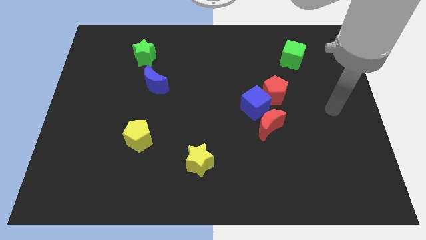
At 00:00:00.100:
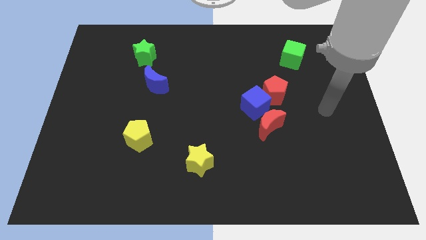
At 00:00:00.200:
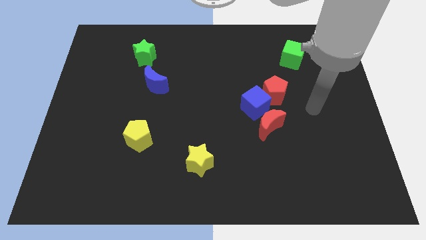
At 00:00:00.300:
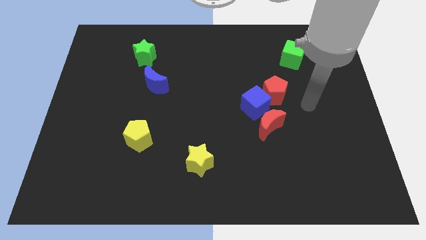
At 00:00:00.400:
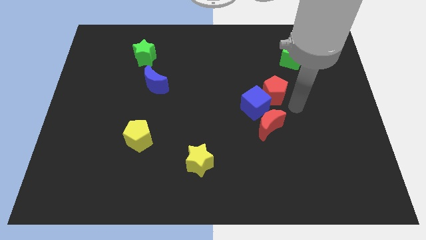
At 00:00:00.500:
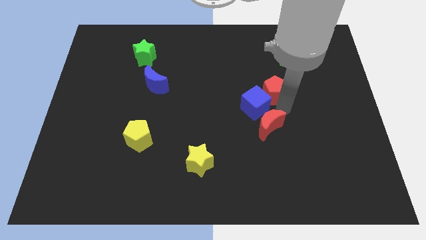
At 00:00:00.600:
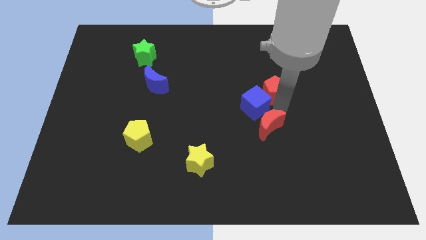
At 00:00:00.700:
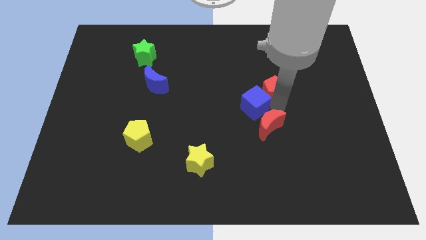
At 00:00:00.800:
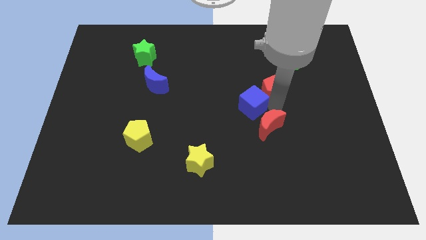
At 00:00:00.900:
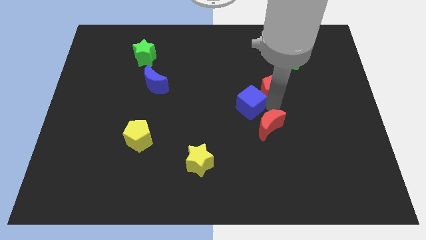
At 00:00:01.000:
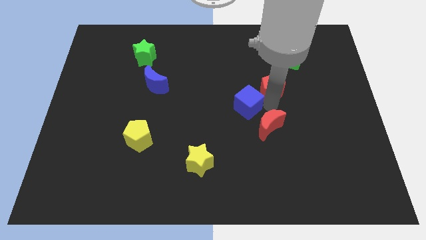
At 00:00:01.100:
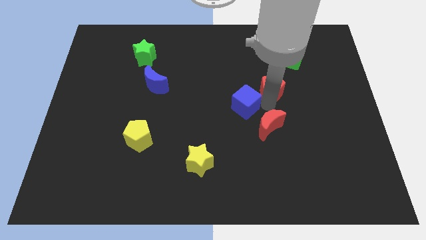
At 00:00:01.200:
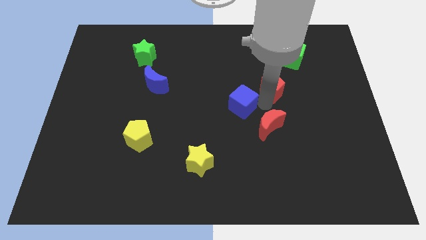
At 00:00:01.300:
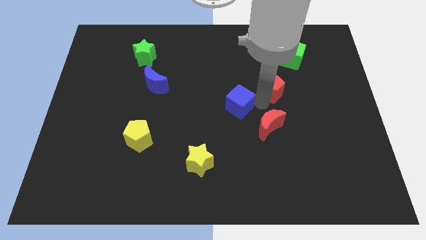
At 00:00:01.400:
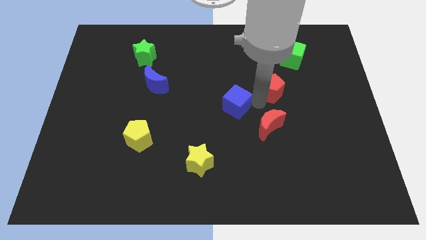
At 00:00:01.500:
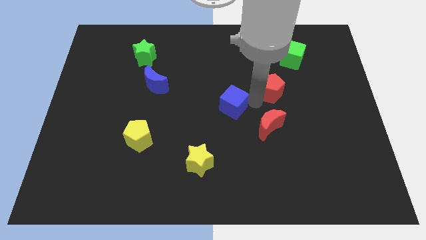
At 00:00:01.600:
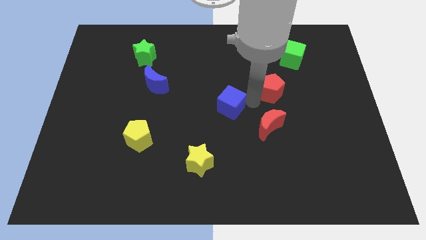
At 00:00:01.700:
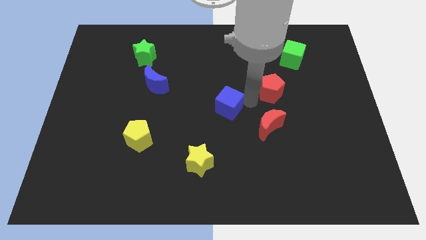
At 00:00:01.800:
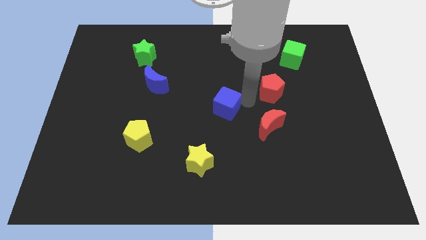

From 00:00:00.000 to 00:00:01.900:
separate the blue cube from the red pentagon and red moon

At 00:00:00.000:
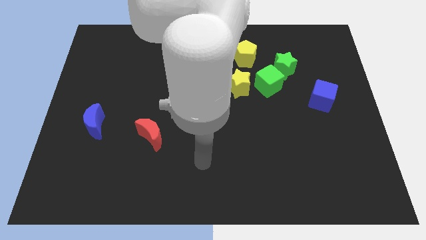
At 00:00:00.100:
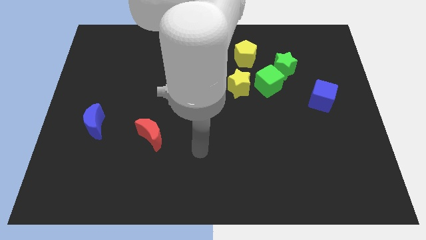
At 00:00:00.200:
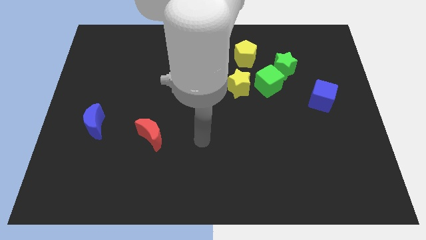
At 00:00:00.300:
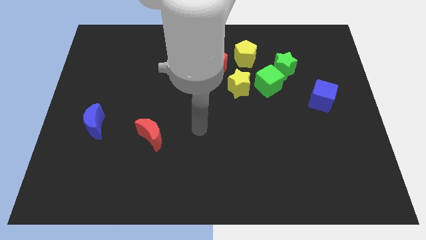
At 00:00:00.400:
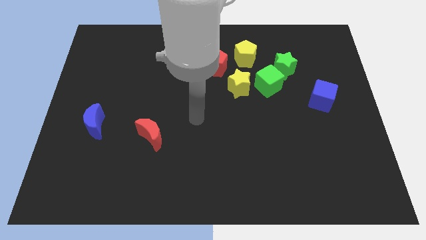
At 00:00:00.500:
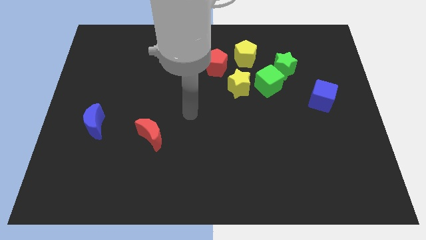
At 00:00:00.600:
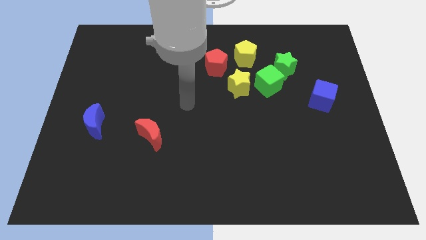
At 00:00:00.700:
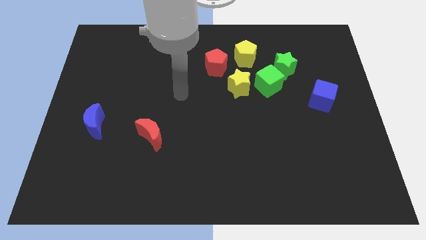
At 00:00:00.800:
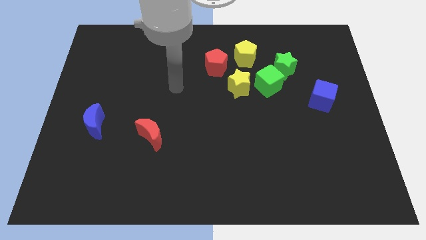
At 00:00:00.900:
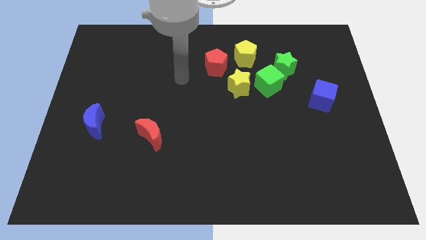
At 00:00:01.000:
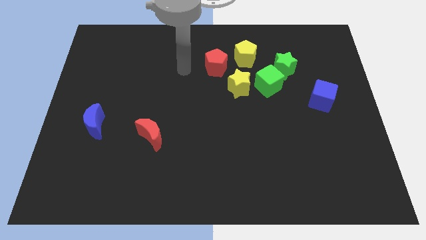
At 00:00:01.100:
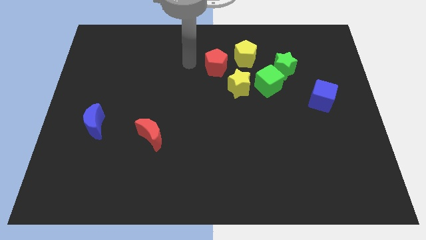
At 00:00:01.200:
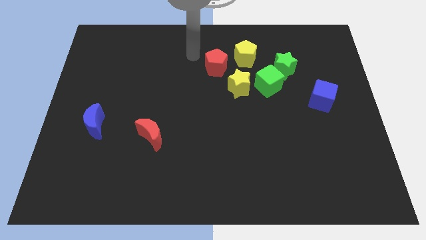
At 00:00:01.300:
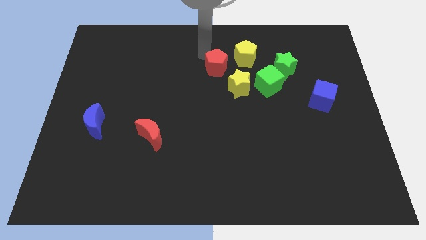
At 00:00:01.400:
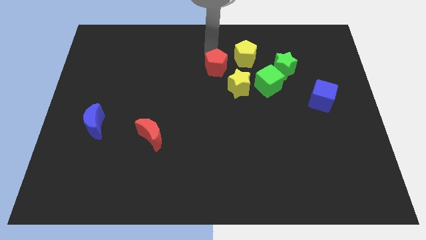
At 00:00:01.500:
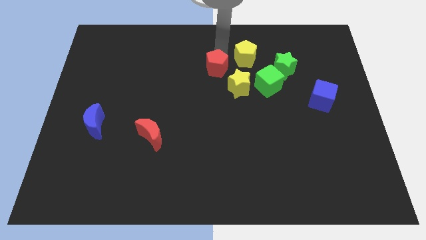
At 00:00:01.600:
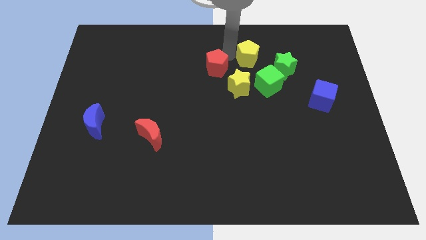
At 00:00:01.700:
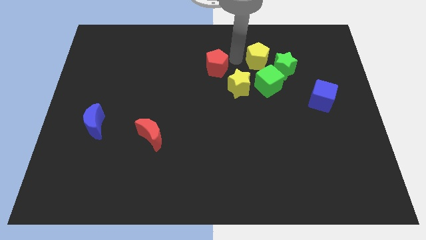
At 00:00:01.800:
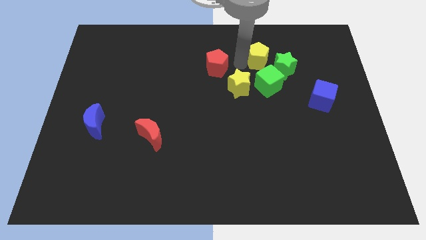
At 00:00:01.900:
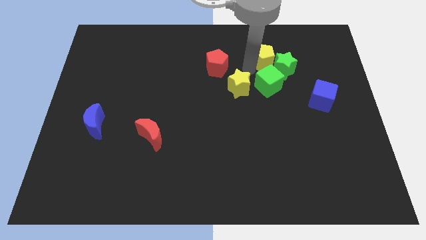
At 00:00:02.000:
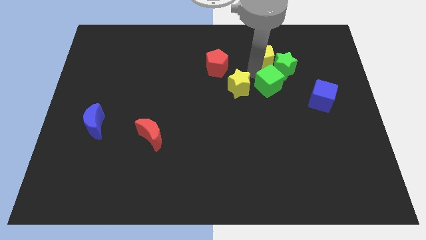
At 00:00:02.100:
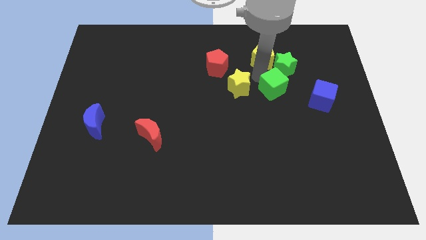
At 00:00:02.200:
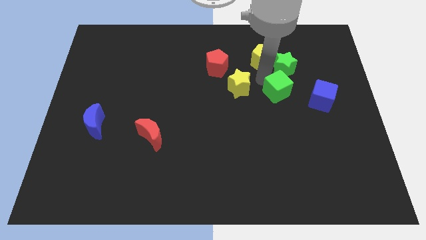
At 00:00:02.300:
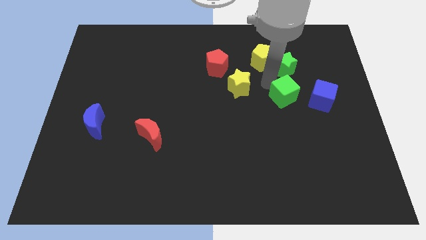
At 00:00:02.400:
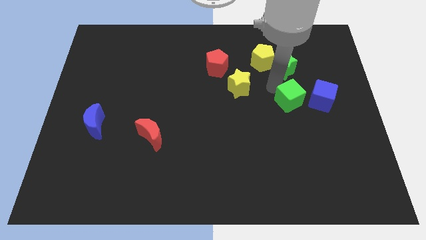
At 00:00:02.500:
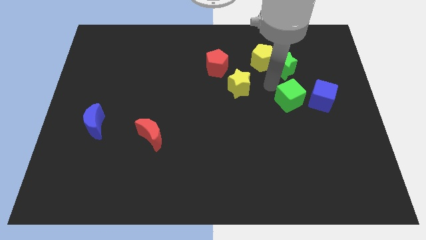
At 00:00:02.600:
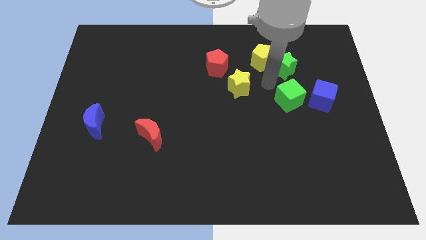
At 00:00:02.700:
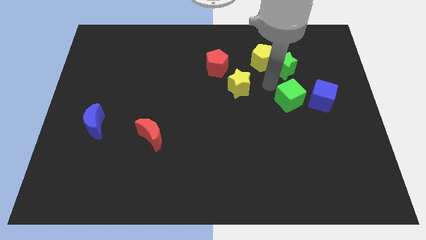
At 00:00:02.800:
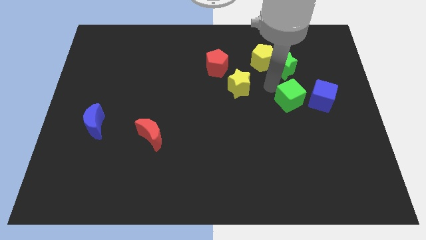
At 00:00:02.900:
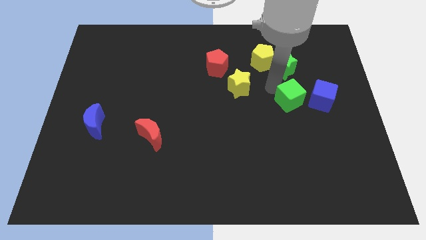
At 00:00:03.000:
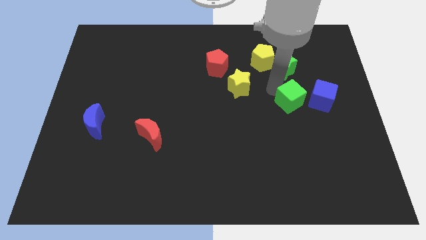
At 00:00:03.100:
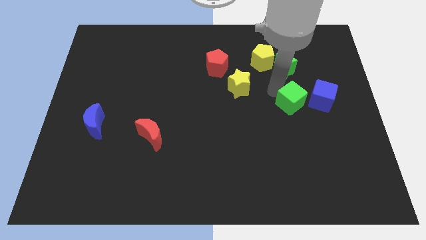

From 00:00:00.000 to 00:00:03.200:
separate the green cube from the green star and yellow star

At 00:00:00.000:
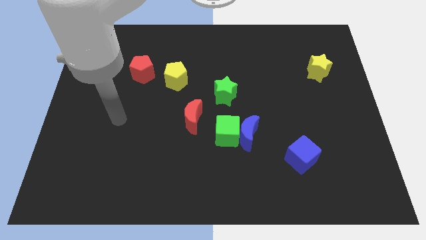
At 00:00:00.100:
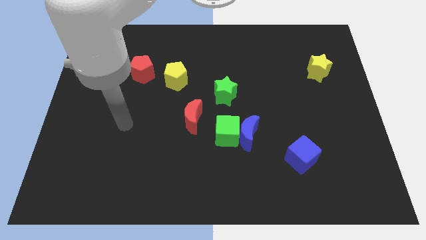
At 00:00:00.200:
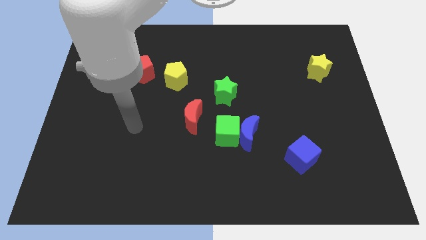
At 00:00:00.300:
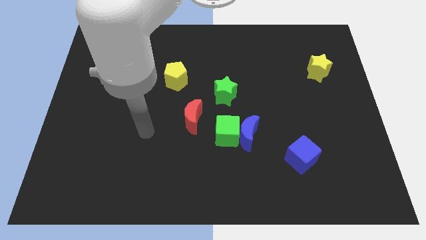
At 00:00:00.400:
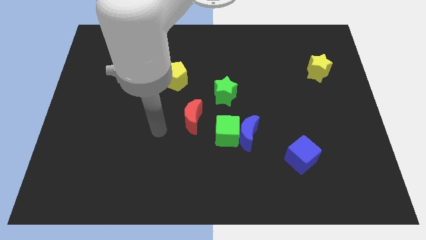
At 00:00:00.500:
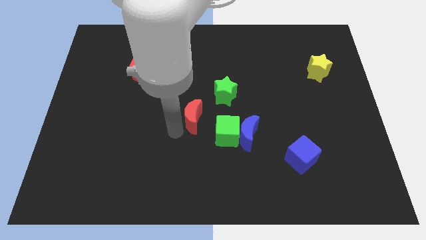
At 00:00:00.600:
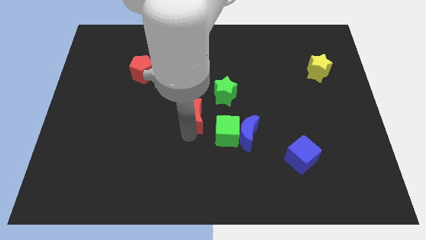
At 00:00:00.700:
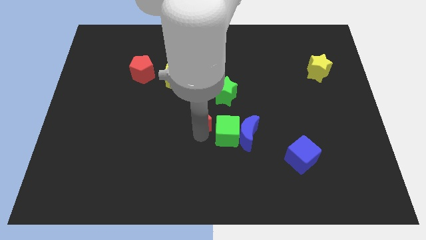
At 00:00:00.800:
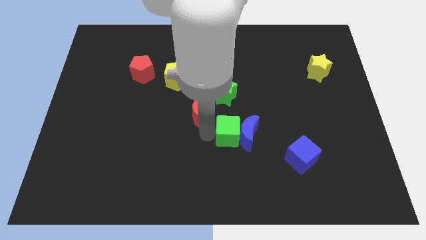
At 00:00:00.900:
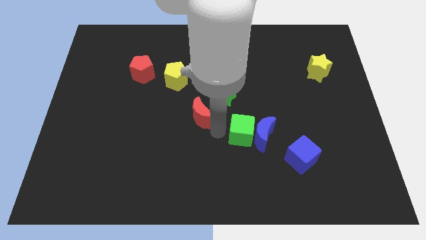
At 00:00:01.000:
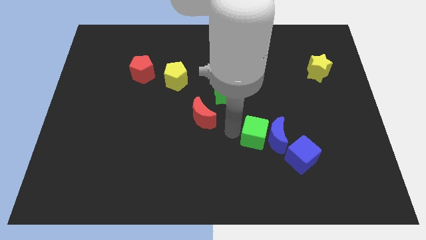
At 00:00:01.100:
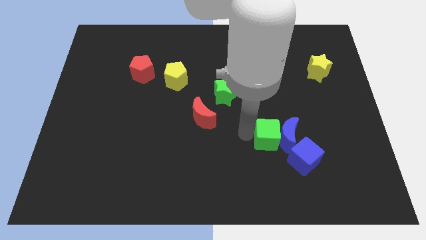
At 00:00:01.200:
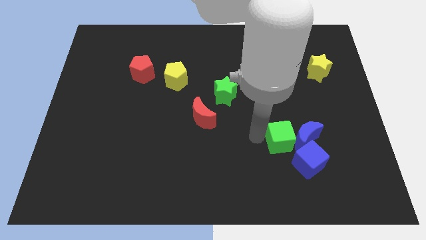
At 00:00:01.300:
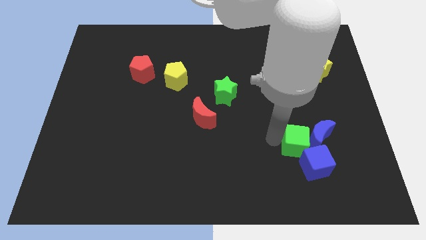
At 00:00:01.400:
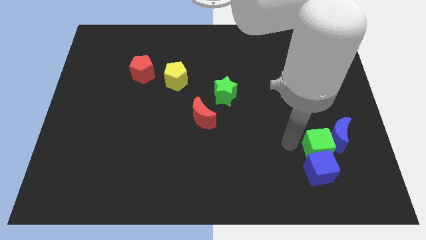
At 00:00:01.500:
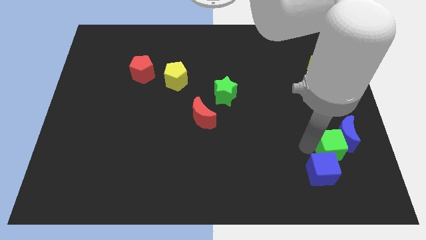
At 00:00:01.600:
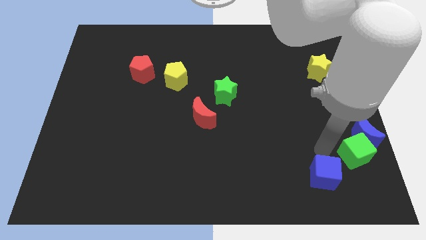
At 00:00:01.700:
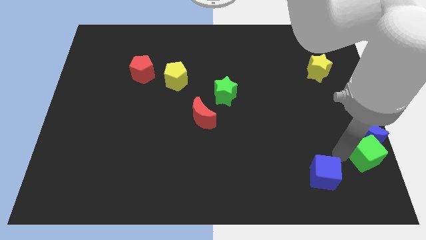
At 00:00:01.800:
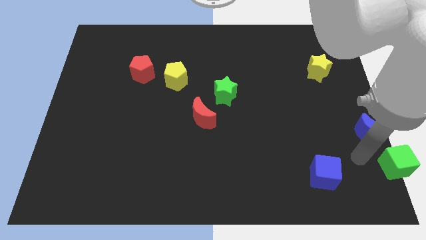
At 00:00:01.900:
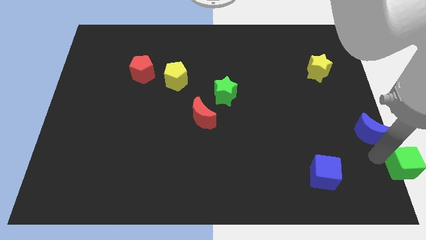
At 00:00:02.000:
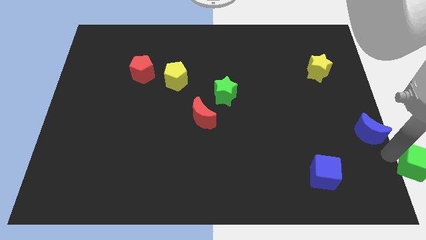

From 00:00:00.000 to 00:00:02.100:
separate the blue moon from the green cube

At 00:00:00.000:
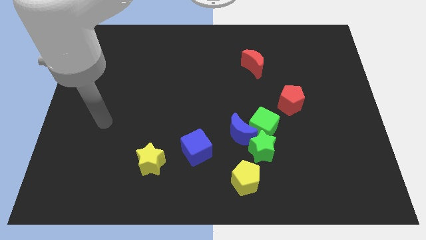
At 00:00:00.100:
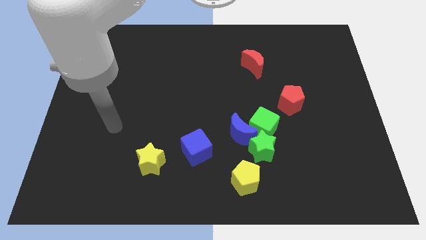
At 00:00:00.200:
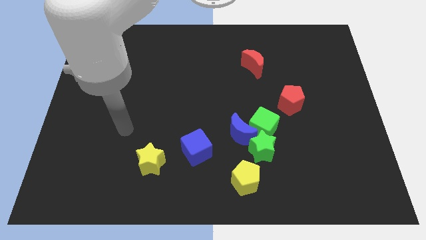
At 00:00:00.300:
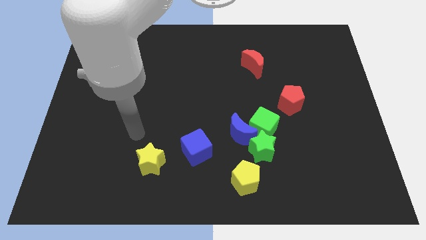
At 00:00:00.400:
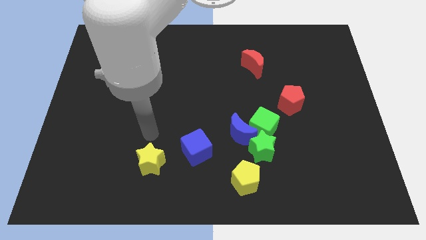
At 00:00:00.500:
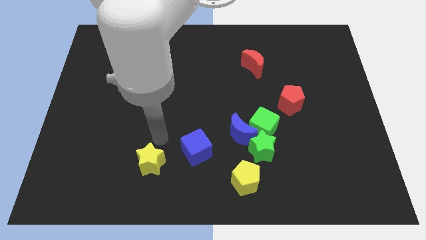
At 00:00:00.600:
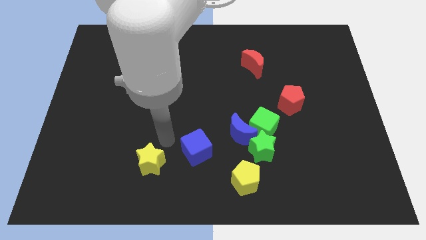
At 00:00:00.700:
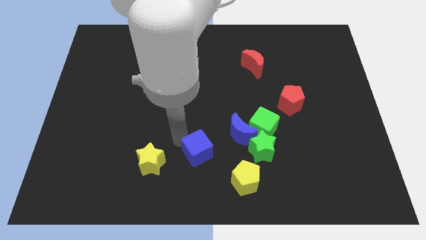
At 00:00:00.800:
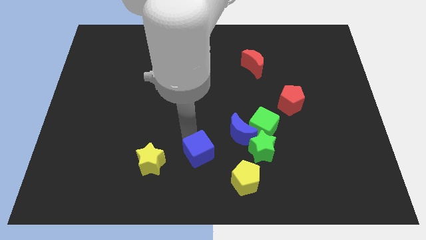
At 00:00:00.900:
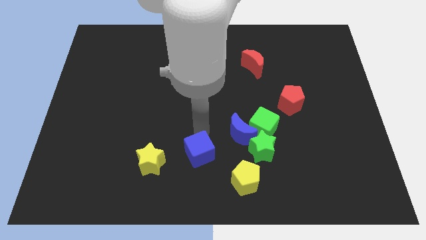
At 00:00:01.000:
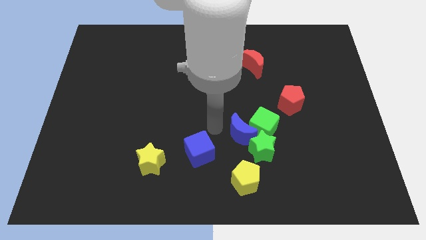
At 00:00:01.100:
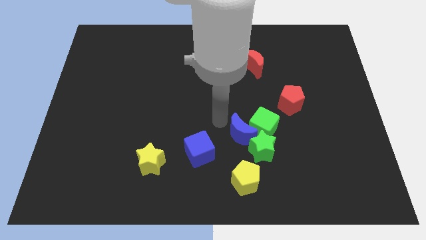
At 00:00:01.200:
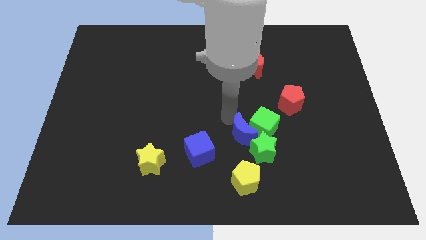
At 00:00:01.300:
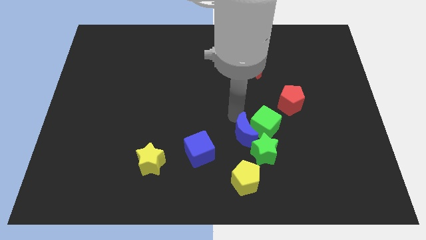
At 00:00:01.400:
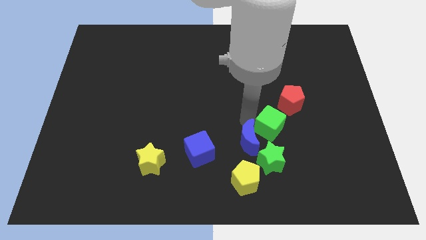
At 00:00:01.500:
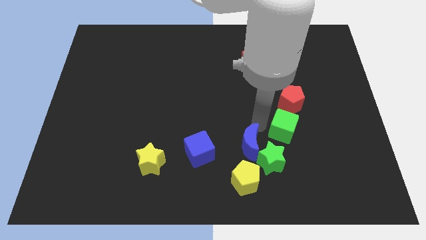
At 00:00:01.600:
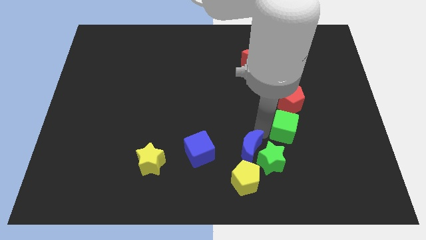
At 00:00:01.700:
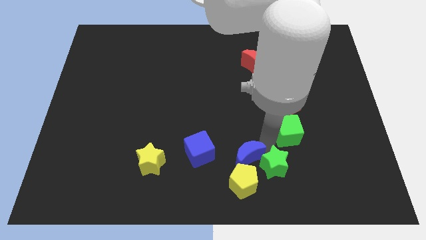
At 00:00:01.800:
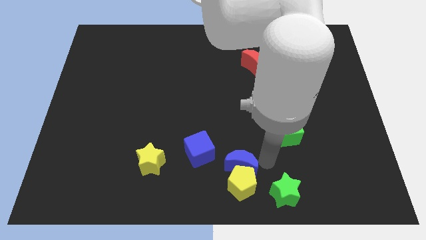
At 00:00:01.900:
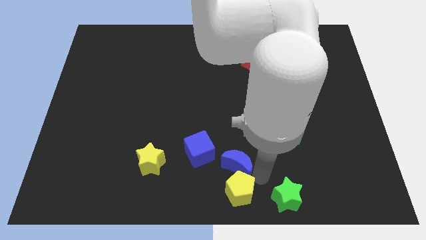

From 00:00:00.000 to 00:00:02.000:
move the blue moon away from the green cube and green star
